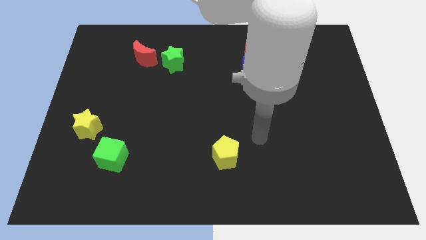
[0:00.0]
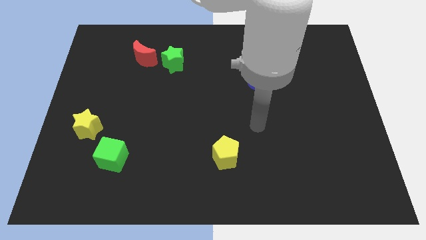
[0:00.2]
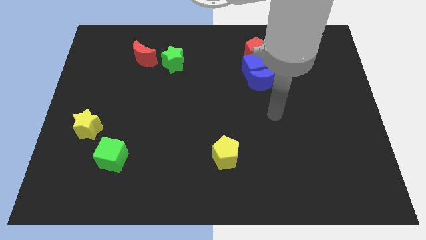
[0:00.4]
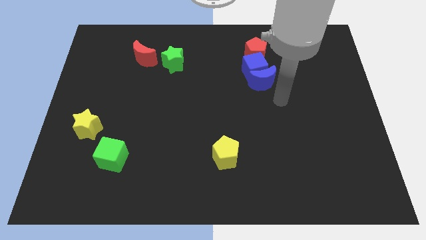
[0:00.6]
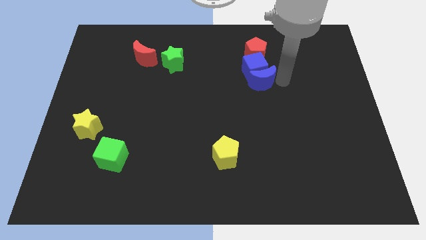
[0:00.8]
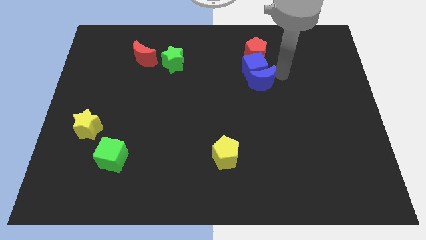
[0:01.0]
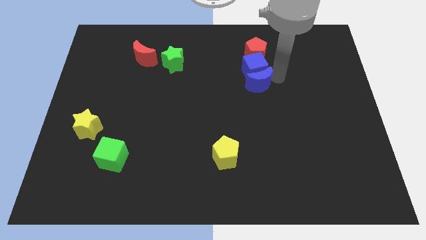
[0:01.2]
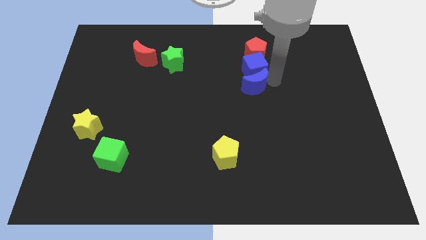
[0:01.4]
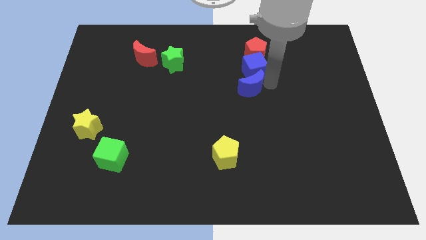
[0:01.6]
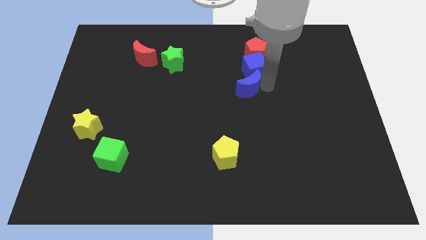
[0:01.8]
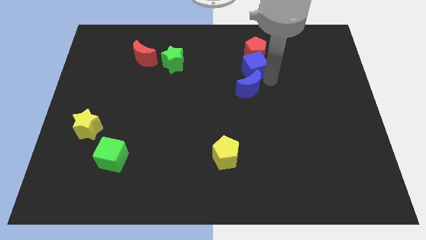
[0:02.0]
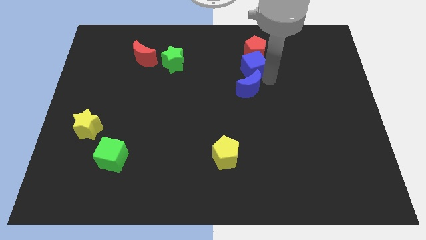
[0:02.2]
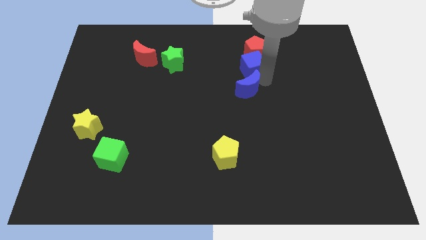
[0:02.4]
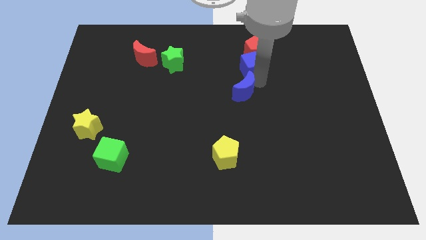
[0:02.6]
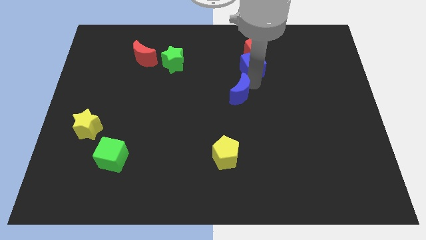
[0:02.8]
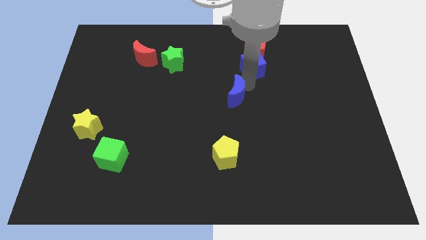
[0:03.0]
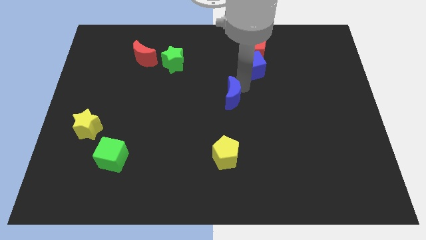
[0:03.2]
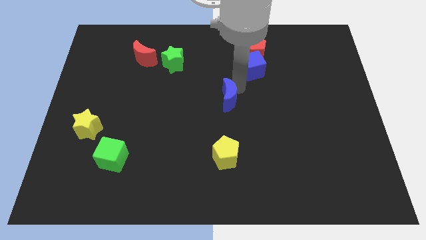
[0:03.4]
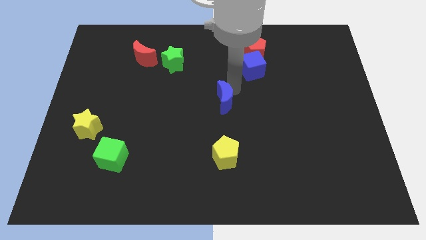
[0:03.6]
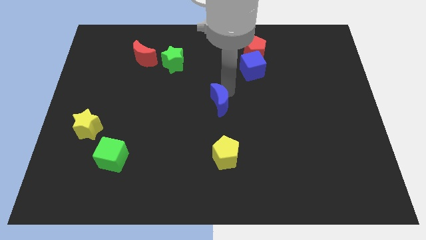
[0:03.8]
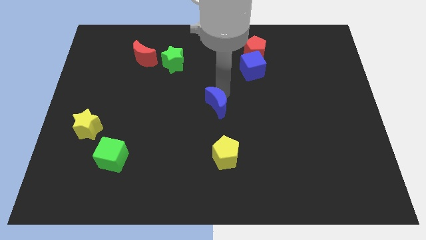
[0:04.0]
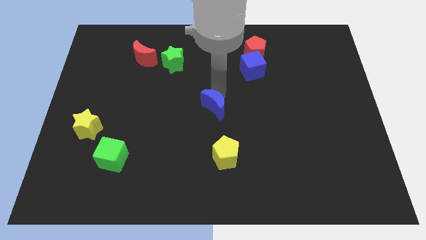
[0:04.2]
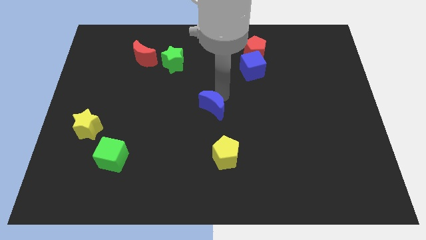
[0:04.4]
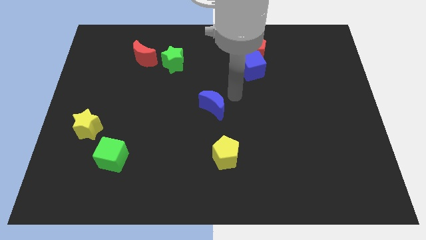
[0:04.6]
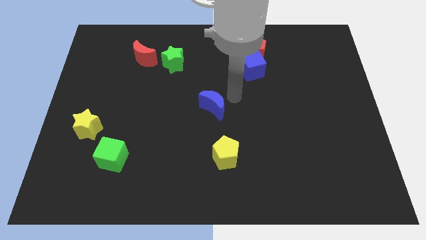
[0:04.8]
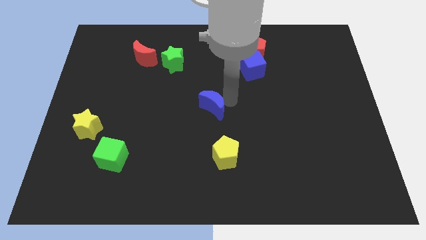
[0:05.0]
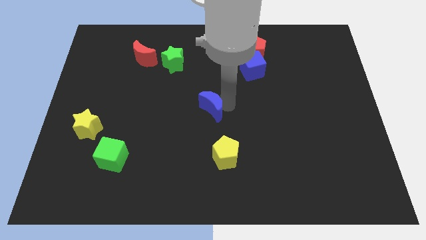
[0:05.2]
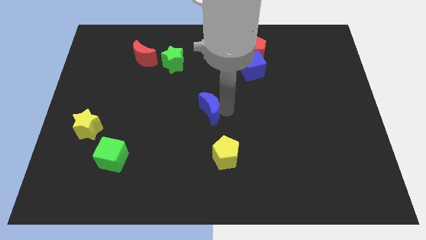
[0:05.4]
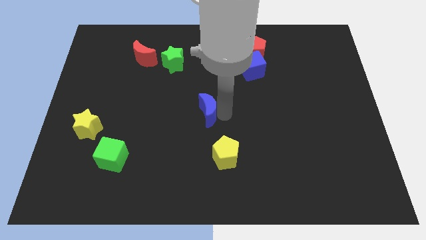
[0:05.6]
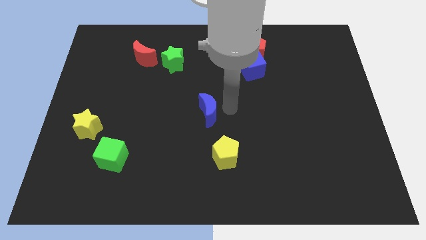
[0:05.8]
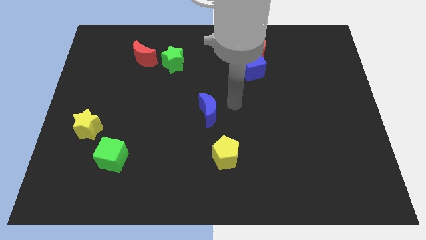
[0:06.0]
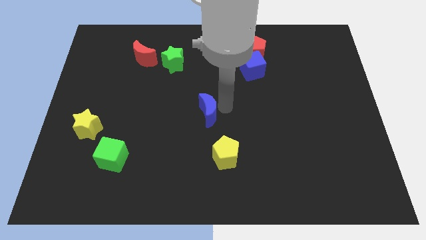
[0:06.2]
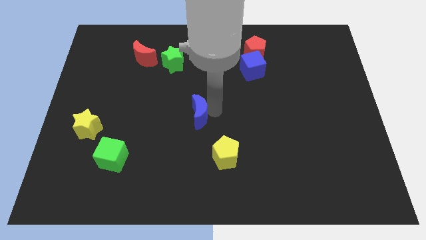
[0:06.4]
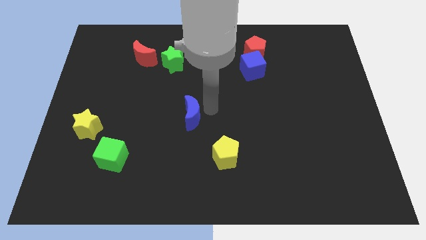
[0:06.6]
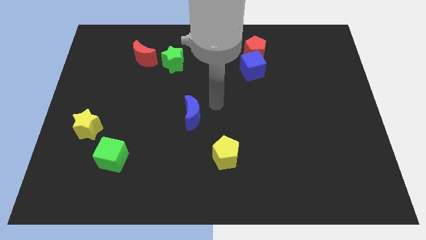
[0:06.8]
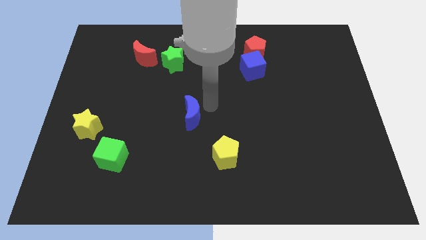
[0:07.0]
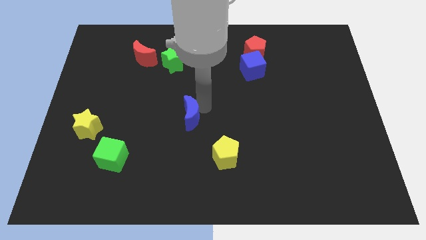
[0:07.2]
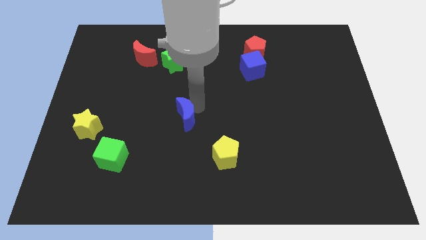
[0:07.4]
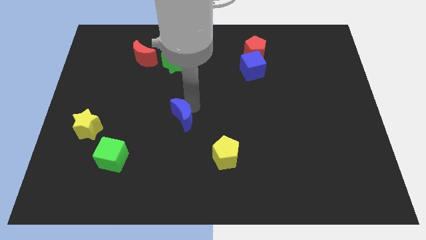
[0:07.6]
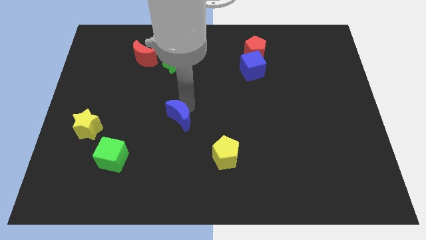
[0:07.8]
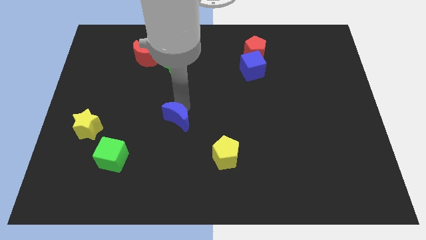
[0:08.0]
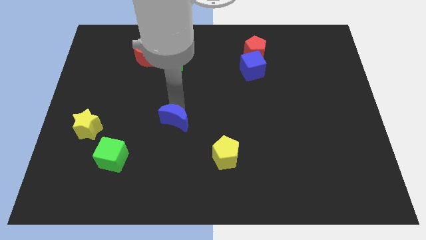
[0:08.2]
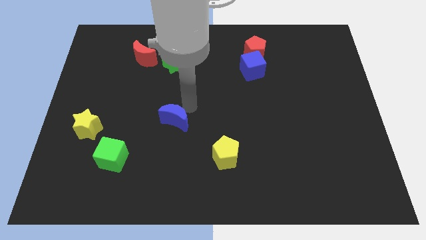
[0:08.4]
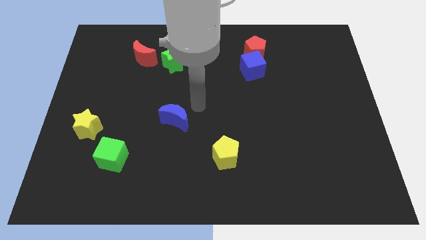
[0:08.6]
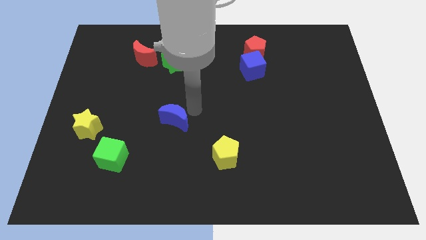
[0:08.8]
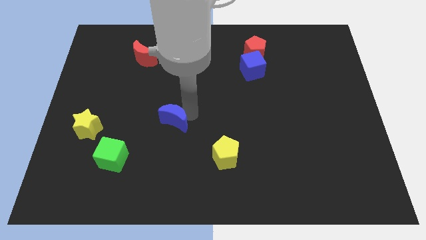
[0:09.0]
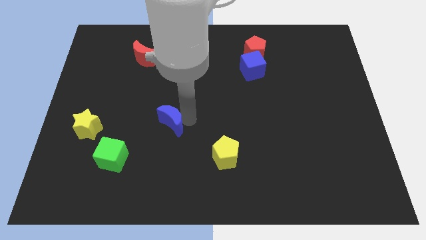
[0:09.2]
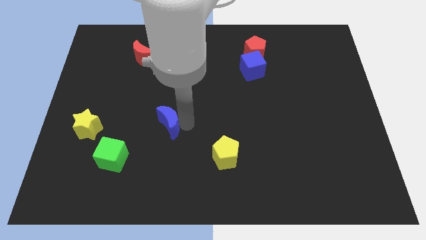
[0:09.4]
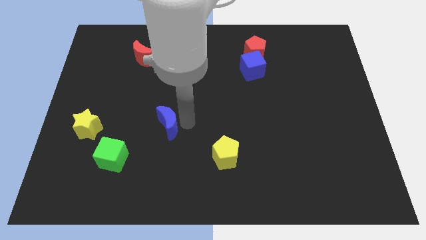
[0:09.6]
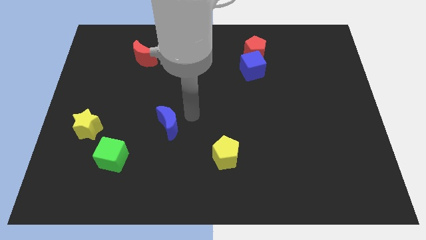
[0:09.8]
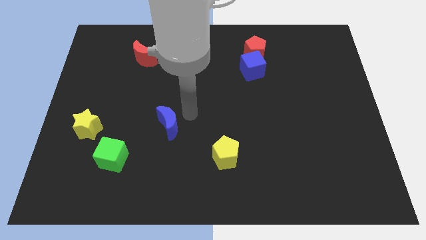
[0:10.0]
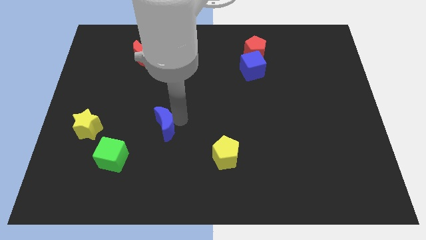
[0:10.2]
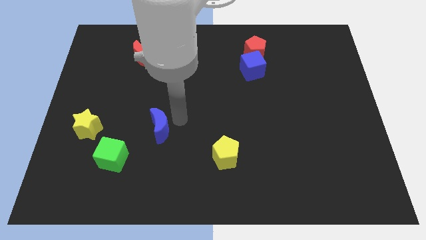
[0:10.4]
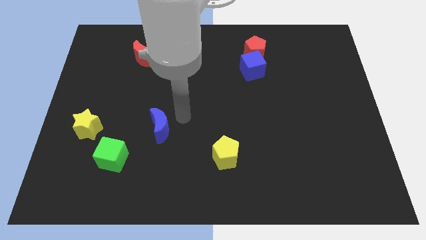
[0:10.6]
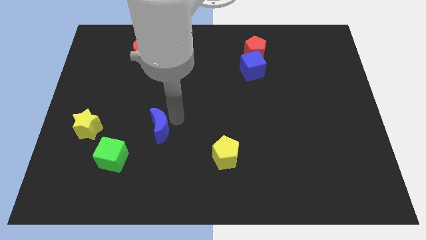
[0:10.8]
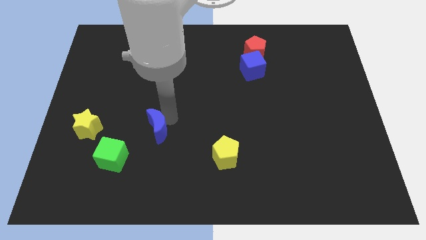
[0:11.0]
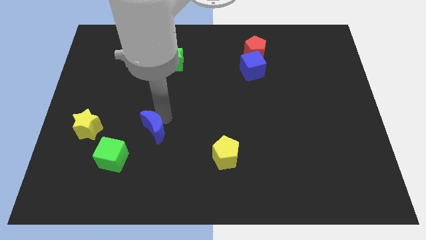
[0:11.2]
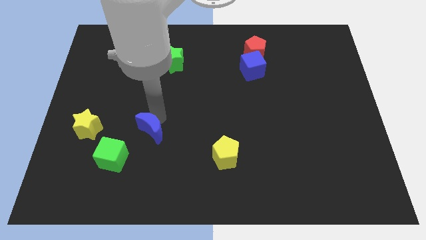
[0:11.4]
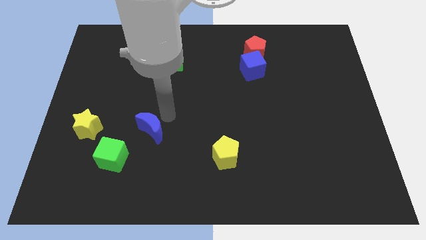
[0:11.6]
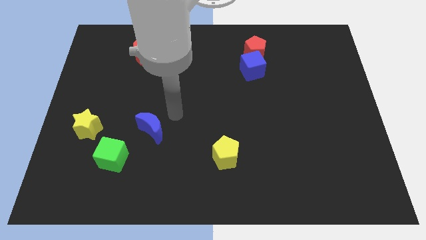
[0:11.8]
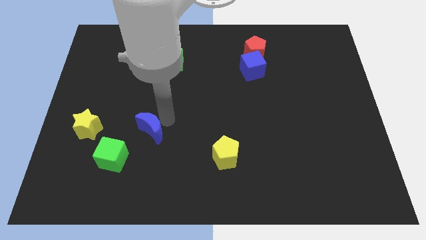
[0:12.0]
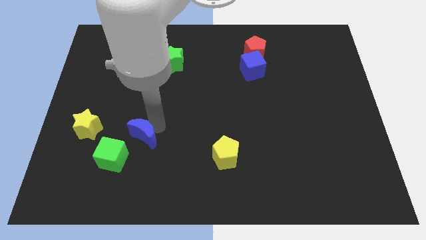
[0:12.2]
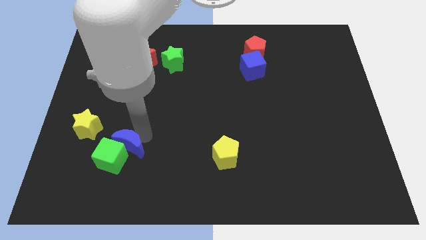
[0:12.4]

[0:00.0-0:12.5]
move the blue moon close to the green cube

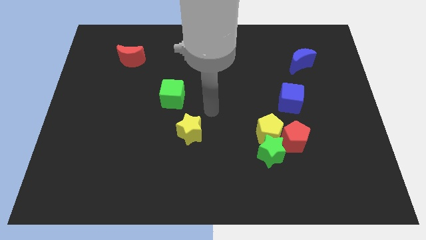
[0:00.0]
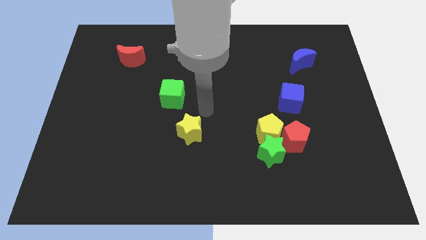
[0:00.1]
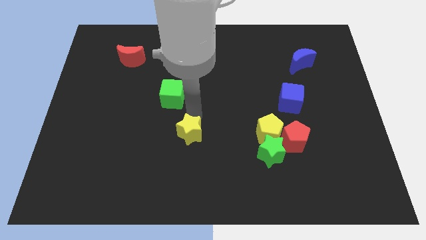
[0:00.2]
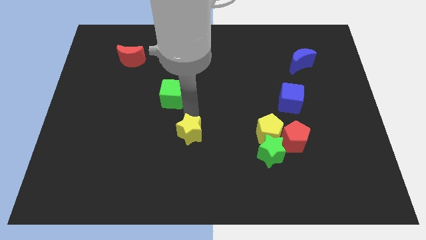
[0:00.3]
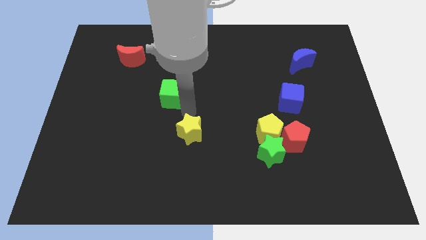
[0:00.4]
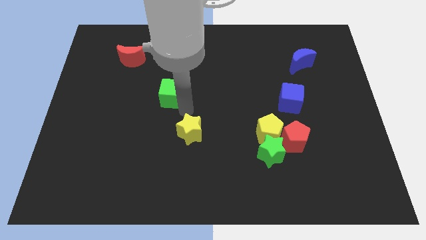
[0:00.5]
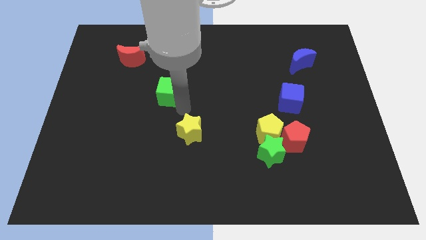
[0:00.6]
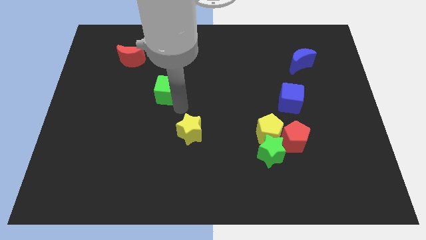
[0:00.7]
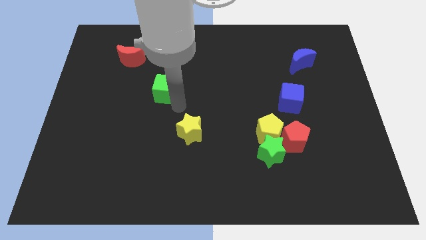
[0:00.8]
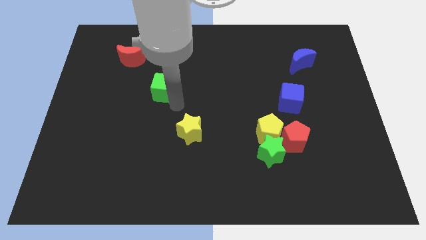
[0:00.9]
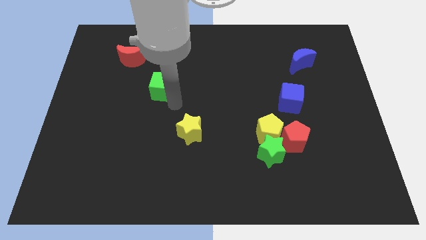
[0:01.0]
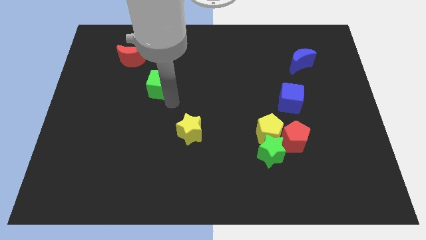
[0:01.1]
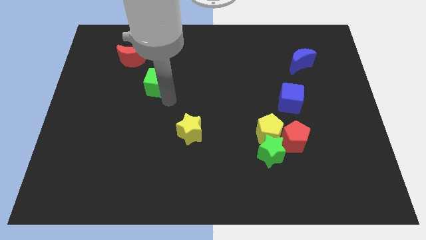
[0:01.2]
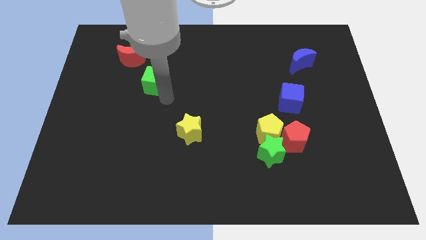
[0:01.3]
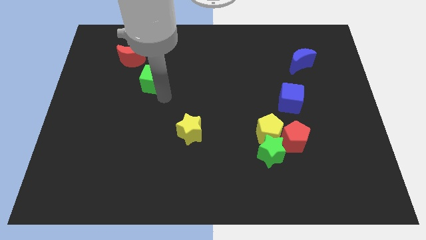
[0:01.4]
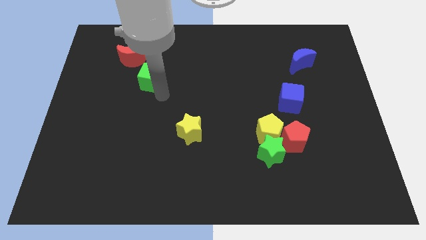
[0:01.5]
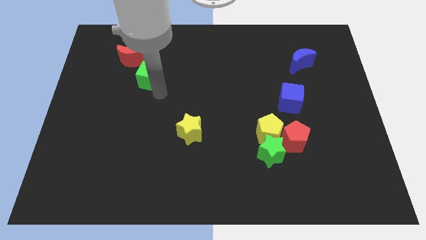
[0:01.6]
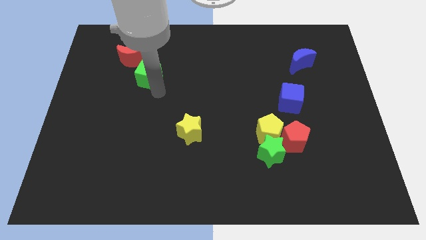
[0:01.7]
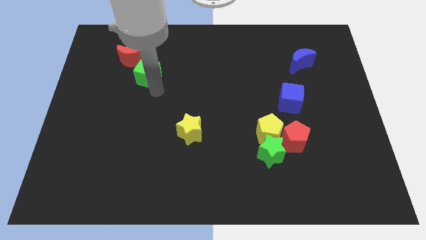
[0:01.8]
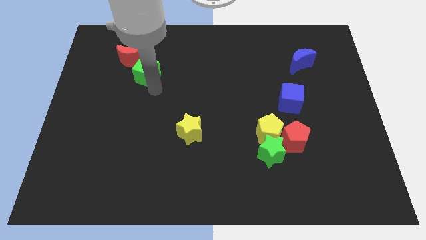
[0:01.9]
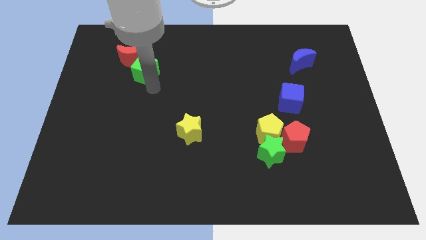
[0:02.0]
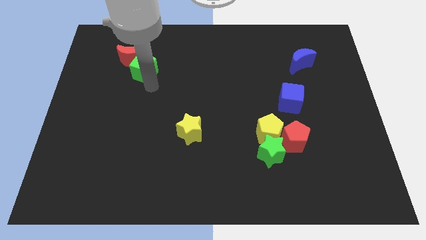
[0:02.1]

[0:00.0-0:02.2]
push the green cube towards the red moon
